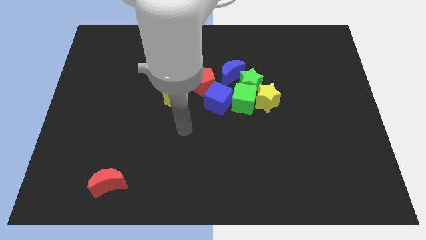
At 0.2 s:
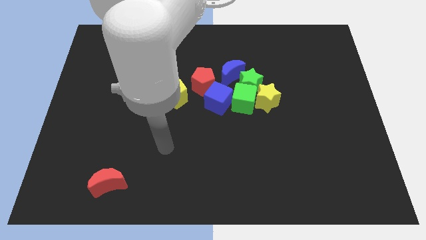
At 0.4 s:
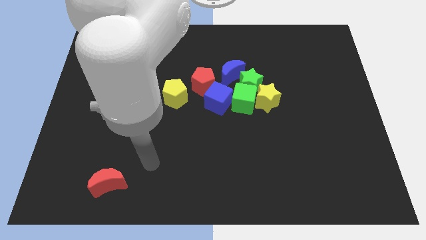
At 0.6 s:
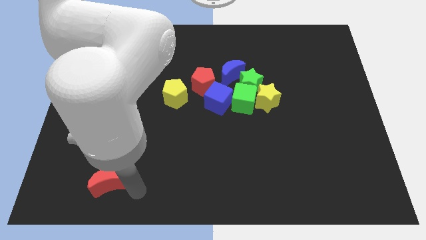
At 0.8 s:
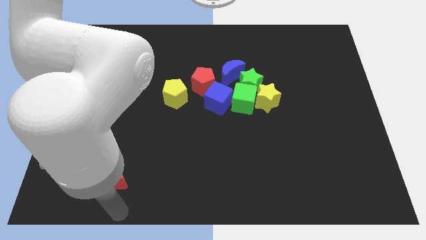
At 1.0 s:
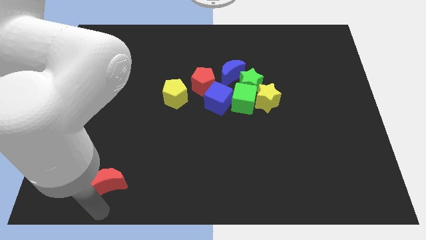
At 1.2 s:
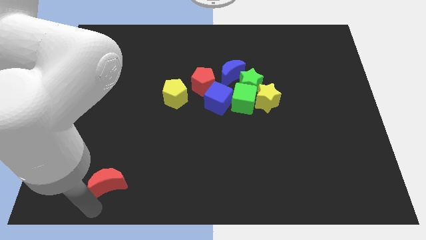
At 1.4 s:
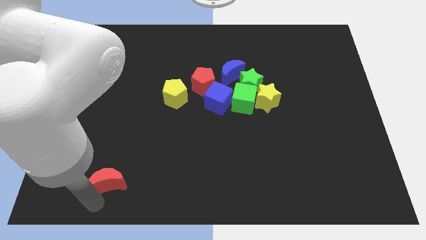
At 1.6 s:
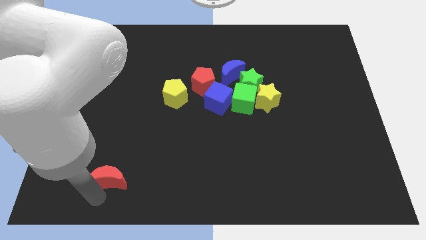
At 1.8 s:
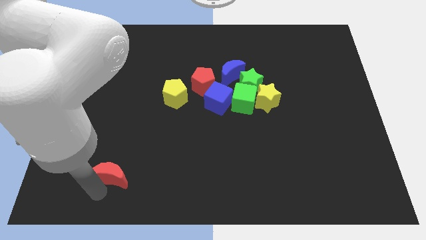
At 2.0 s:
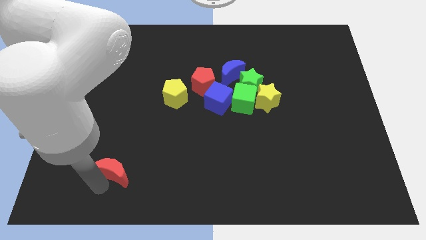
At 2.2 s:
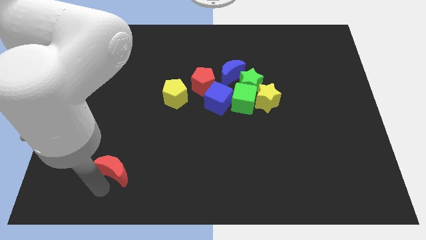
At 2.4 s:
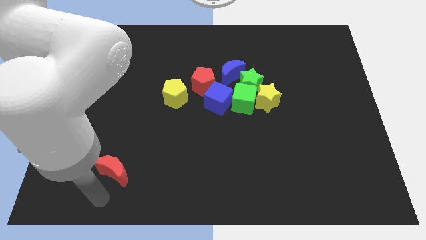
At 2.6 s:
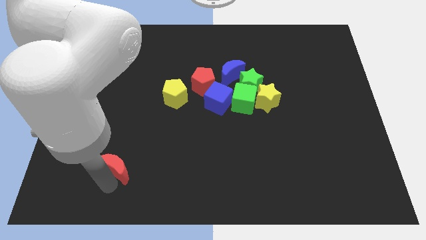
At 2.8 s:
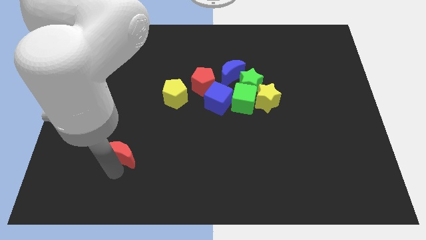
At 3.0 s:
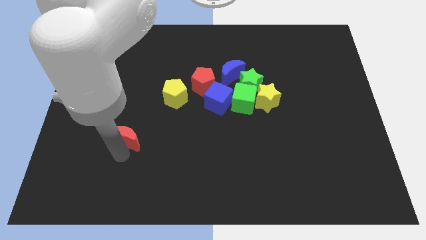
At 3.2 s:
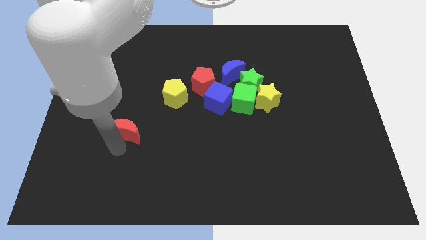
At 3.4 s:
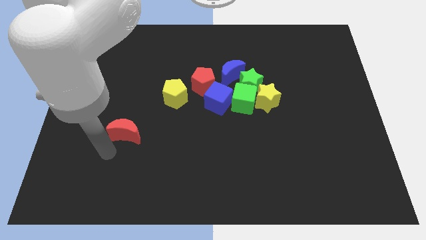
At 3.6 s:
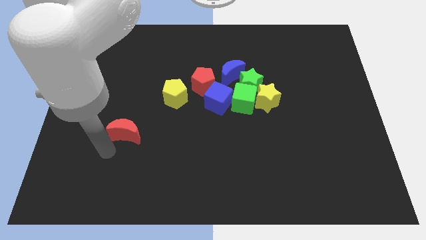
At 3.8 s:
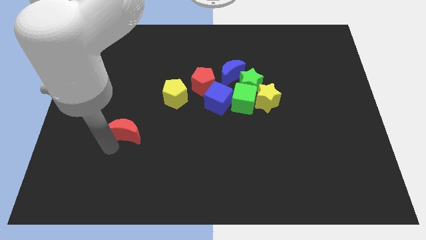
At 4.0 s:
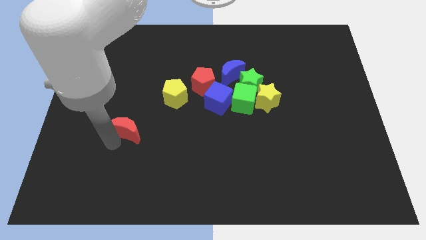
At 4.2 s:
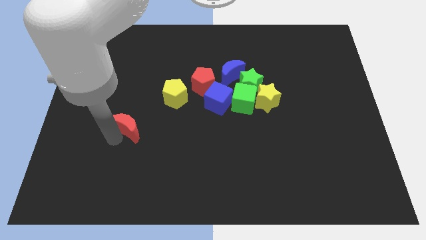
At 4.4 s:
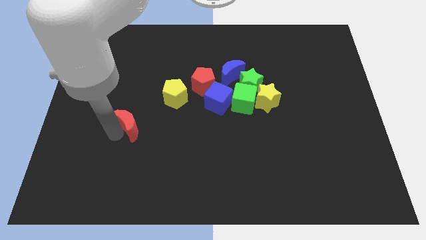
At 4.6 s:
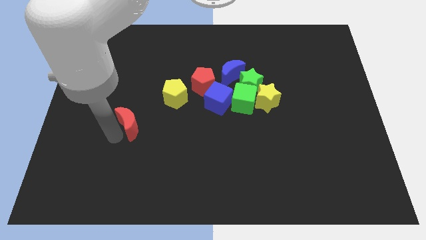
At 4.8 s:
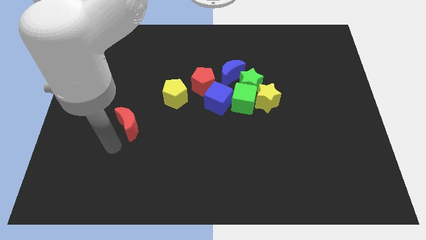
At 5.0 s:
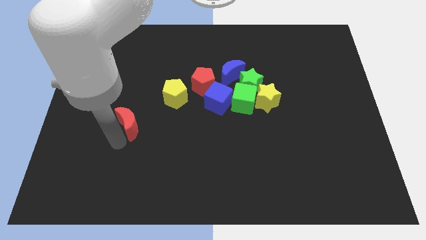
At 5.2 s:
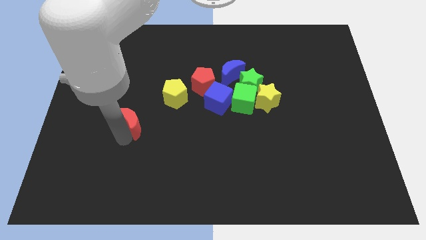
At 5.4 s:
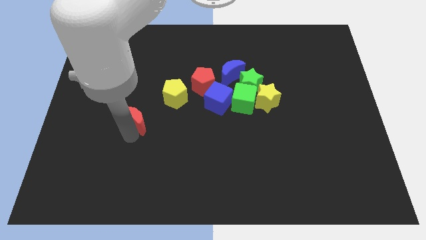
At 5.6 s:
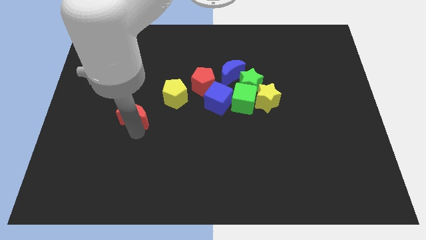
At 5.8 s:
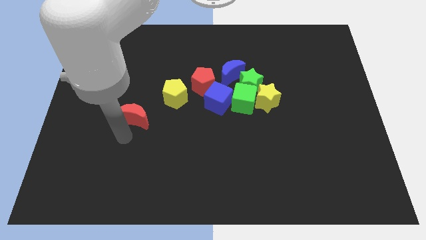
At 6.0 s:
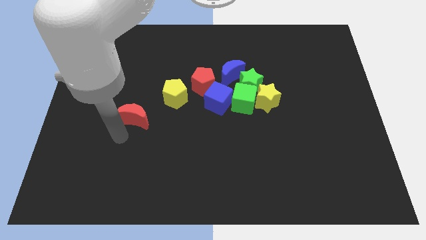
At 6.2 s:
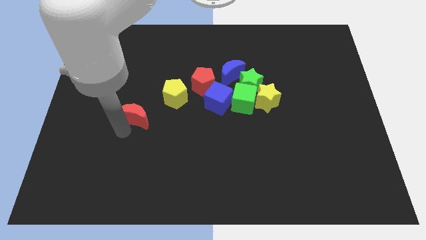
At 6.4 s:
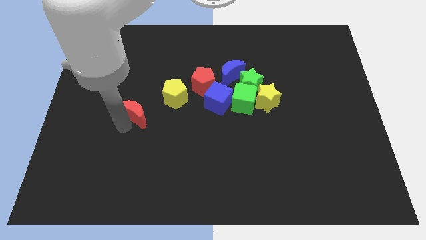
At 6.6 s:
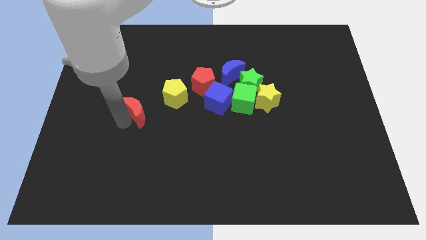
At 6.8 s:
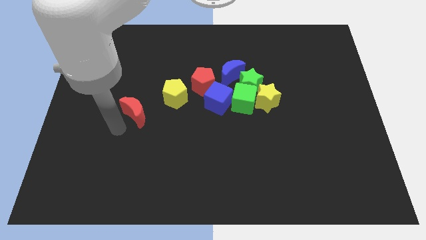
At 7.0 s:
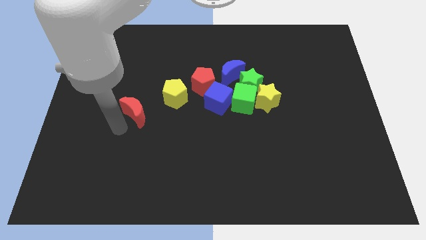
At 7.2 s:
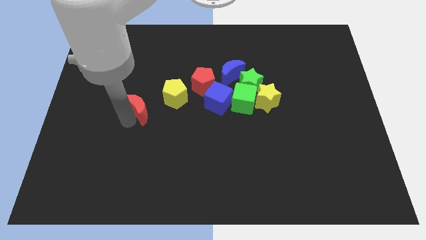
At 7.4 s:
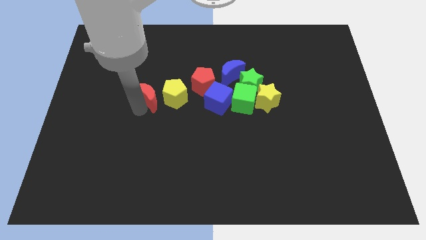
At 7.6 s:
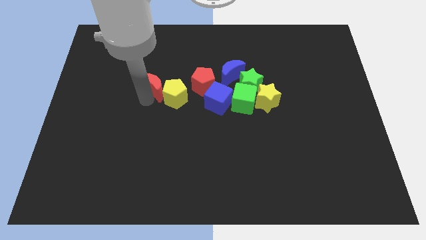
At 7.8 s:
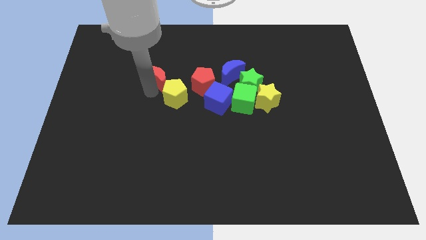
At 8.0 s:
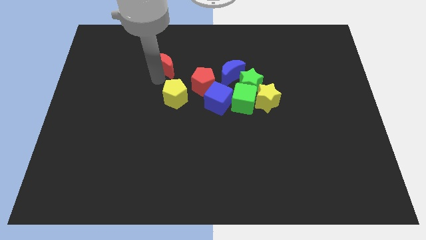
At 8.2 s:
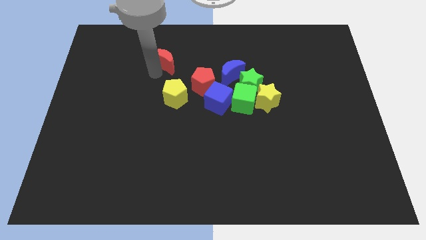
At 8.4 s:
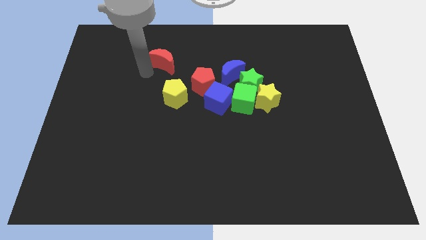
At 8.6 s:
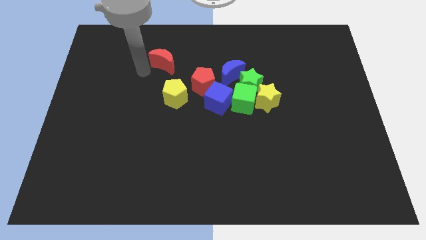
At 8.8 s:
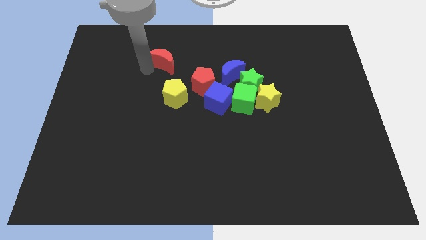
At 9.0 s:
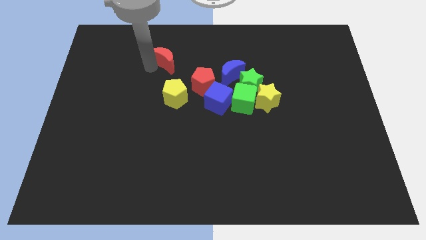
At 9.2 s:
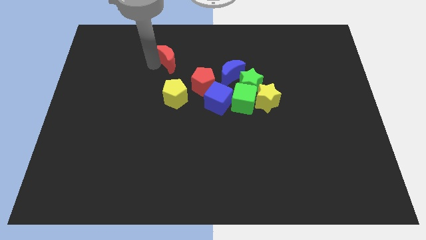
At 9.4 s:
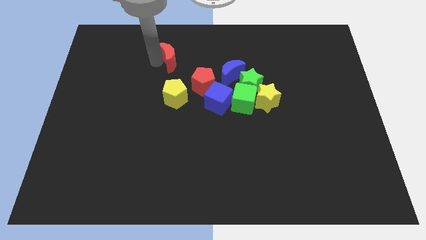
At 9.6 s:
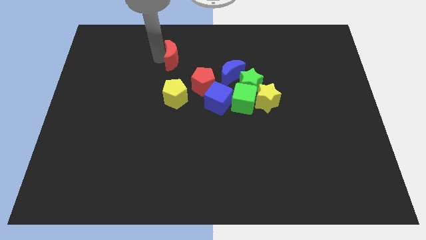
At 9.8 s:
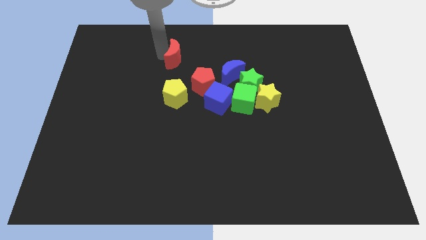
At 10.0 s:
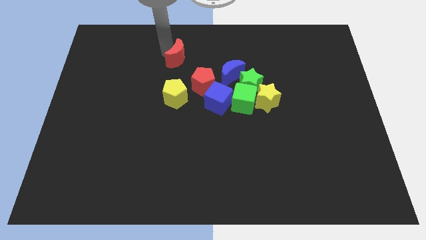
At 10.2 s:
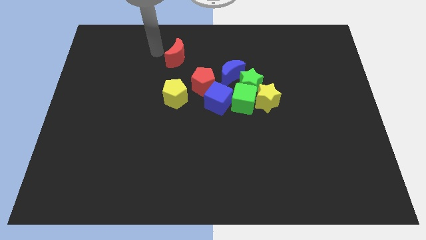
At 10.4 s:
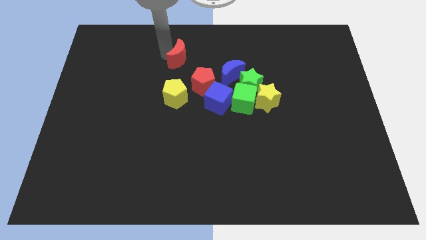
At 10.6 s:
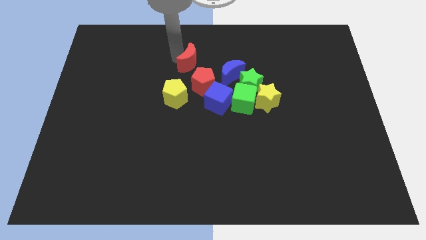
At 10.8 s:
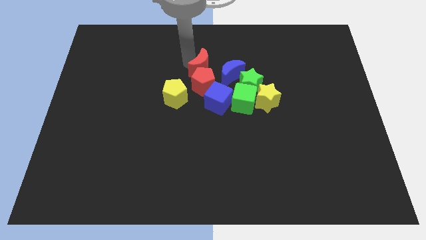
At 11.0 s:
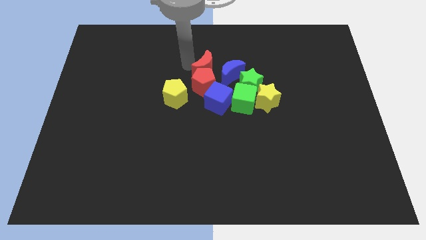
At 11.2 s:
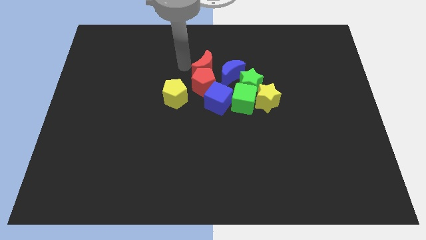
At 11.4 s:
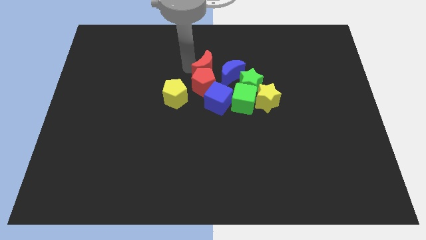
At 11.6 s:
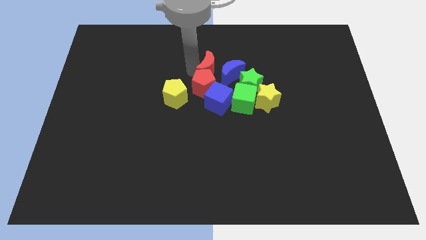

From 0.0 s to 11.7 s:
slide the red moon next to the blue moon
